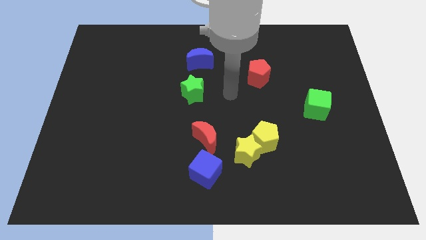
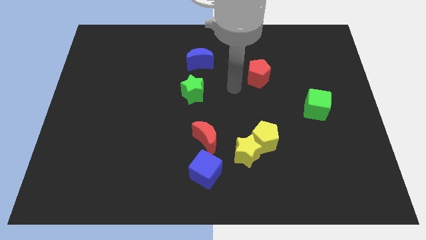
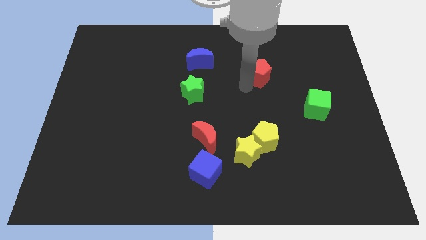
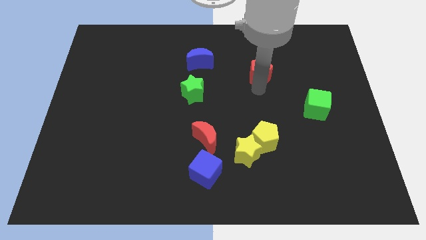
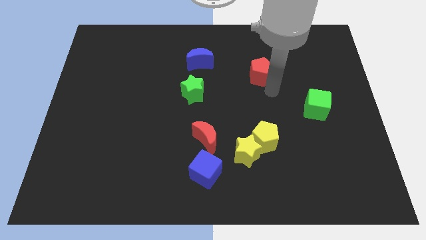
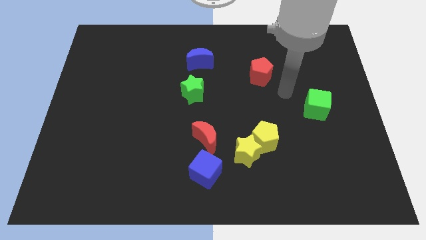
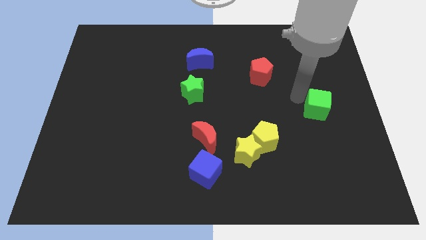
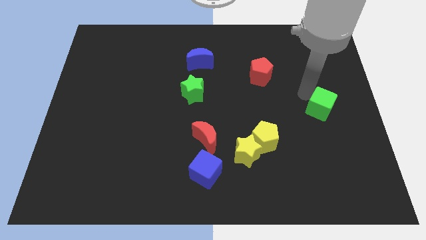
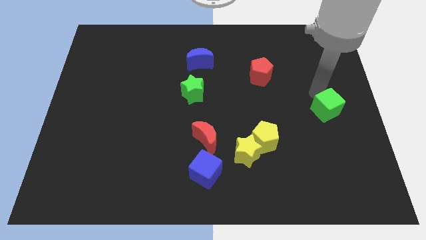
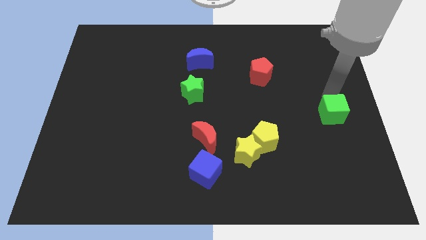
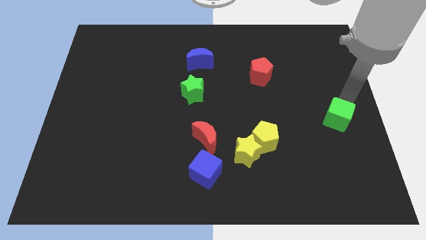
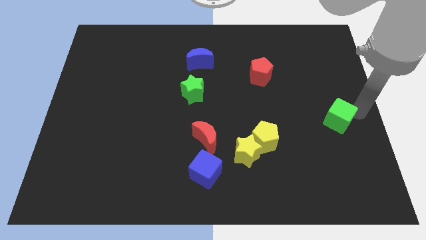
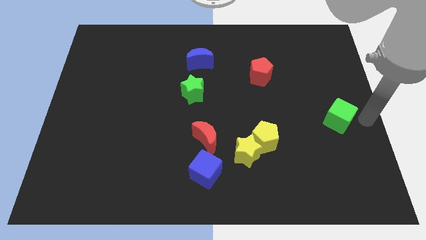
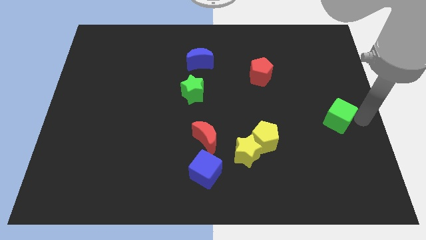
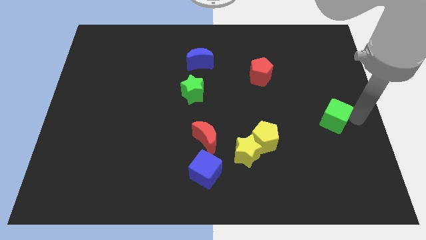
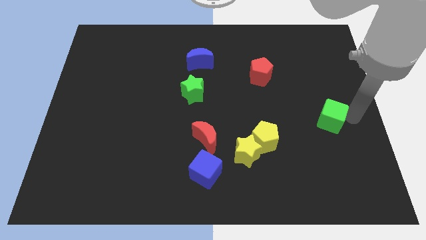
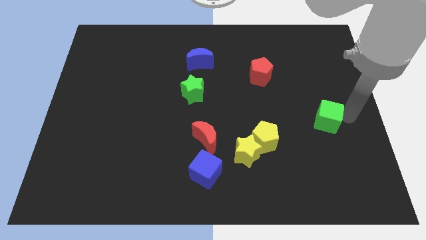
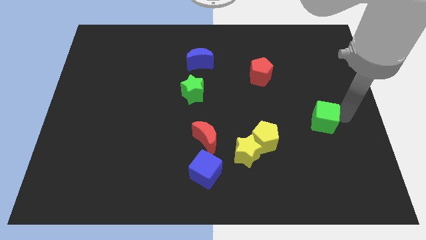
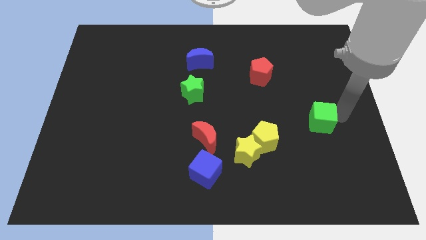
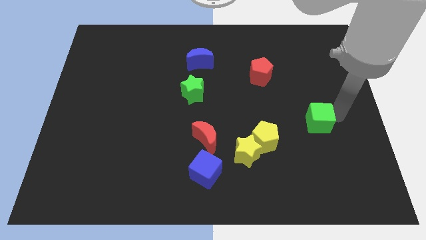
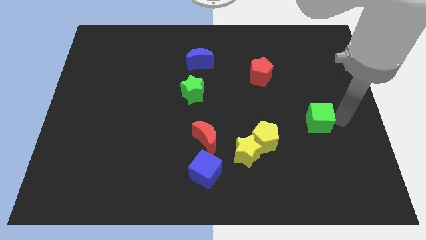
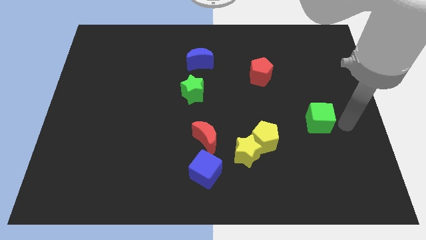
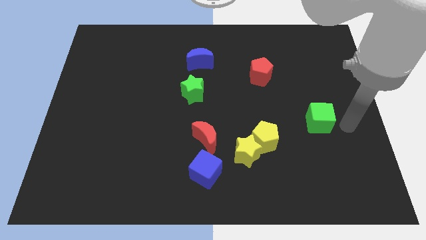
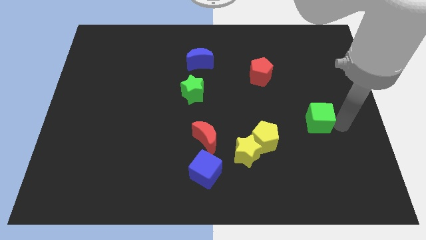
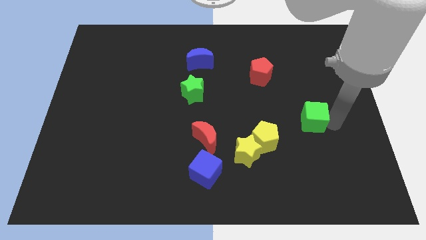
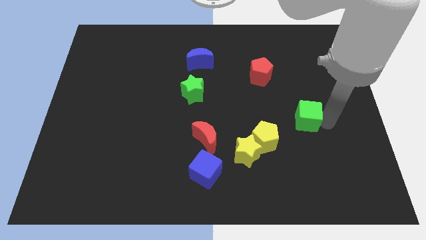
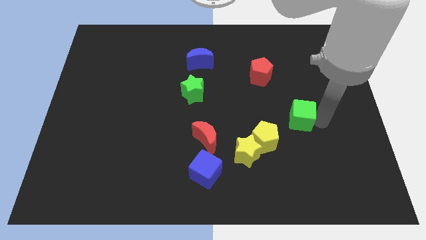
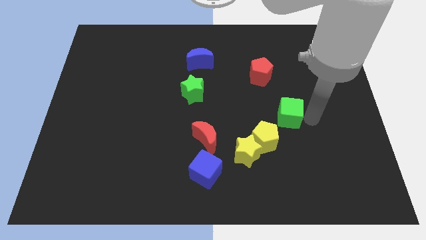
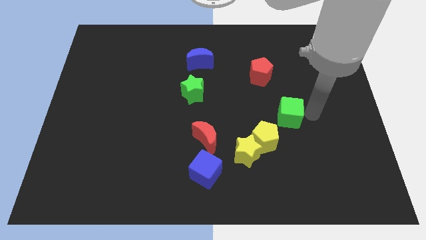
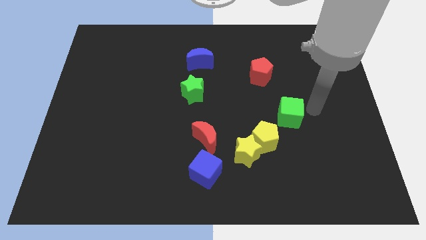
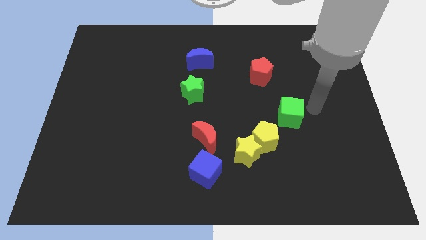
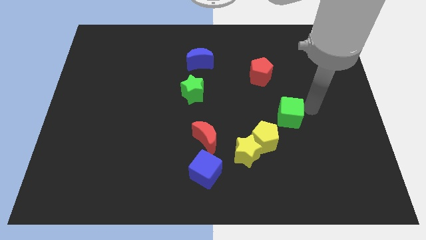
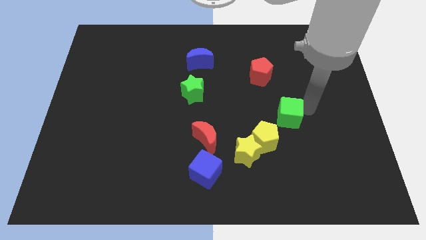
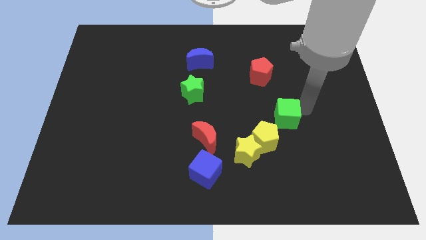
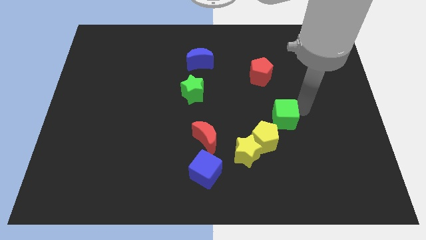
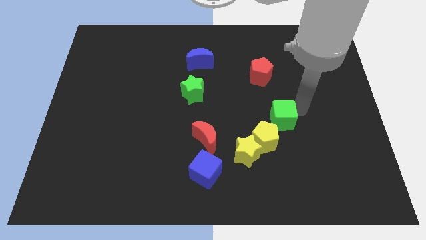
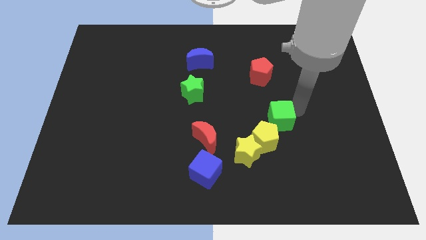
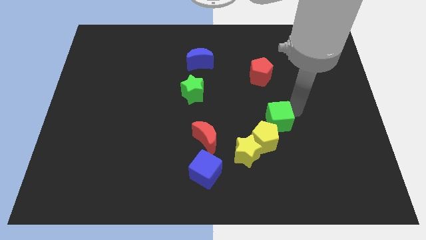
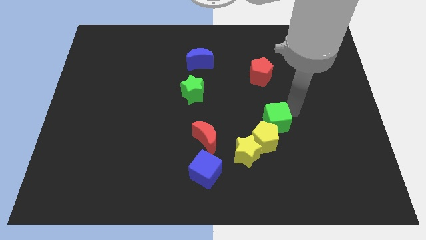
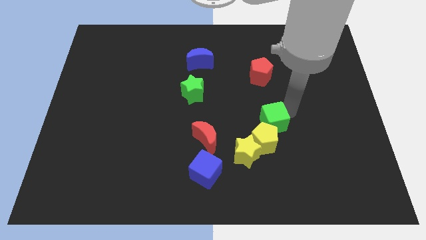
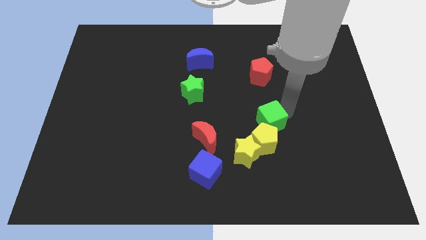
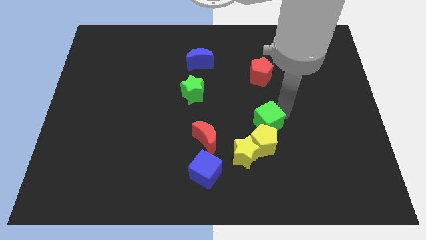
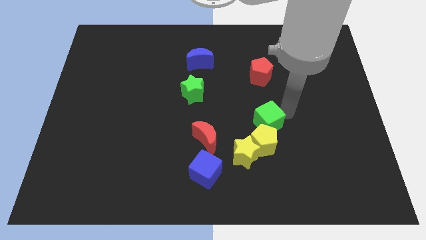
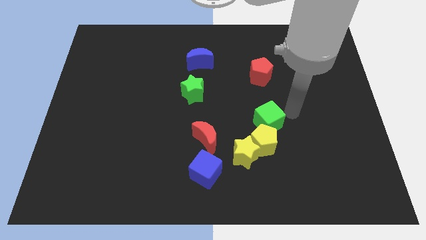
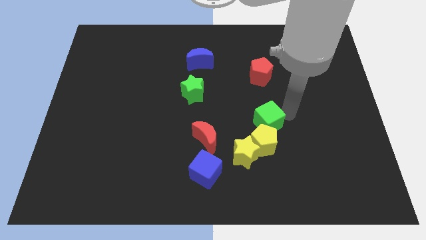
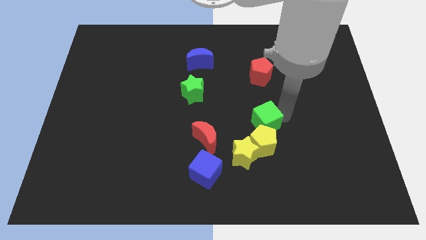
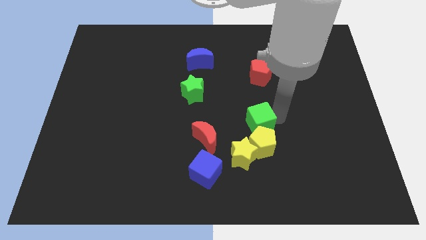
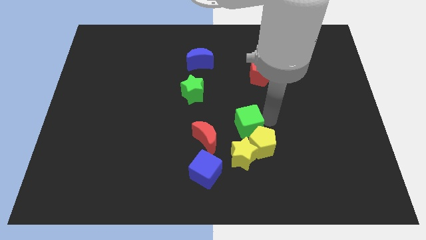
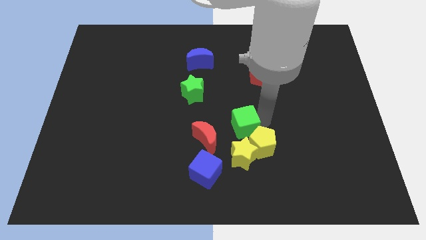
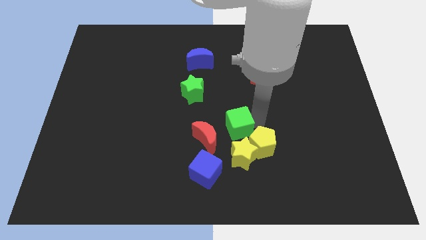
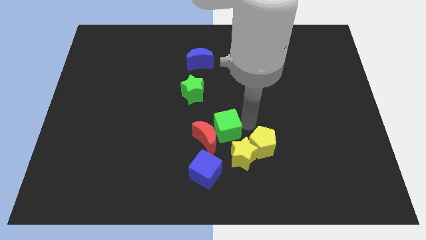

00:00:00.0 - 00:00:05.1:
push the green cube towards the red moon

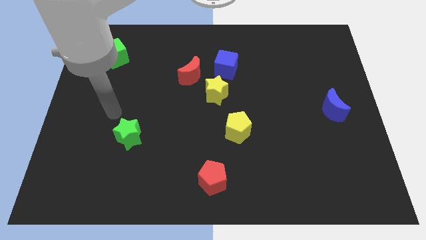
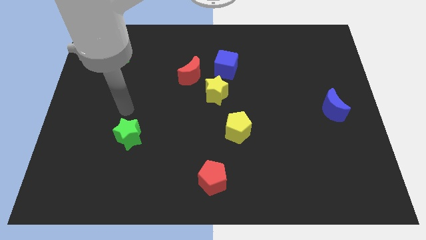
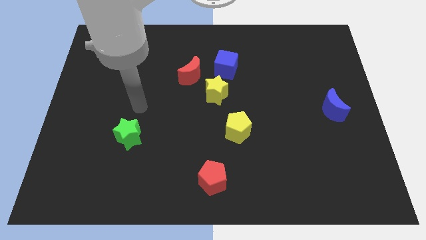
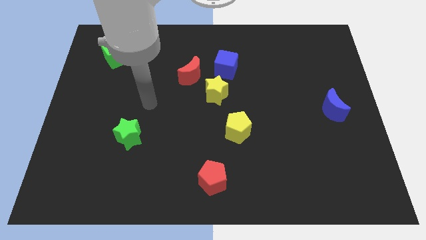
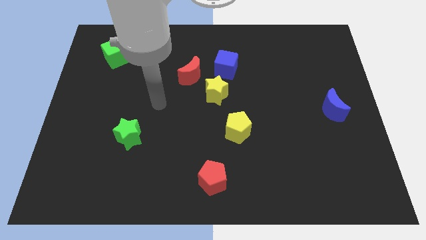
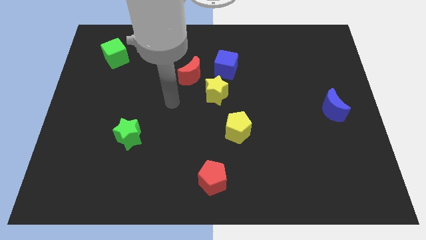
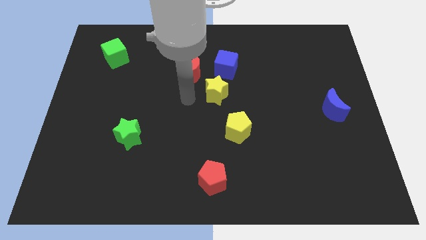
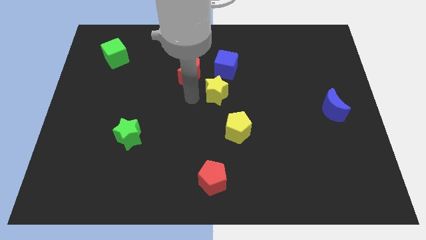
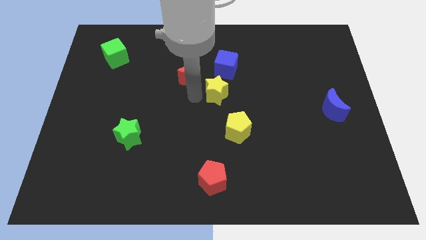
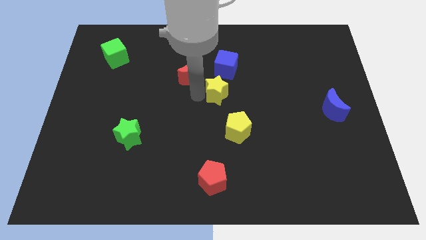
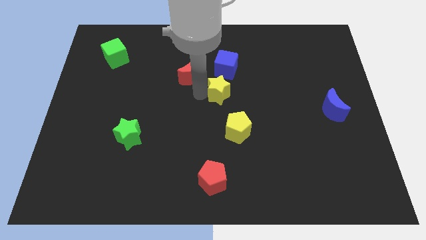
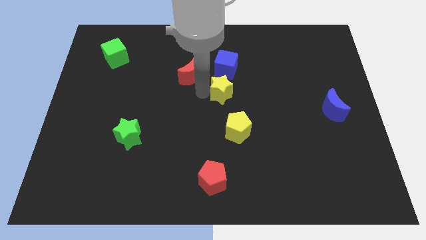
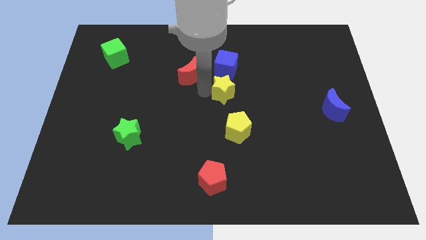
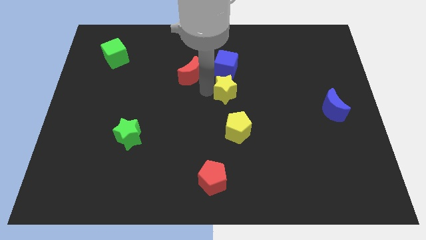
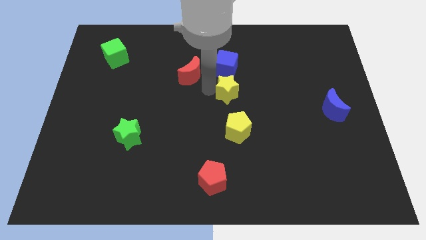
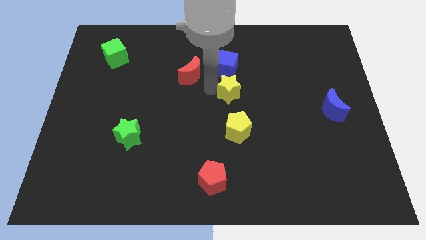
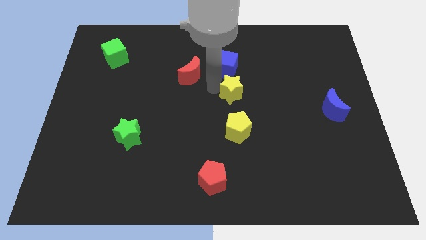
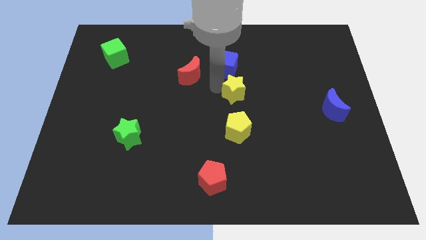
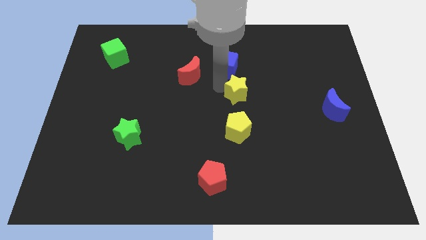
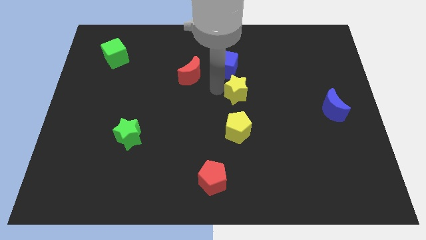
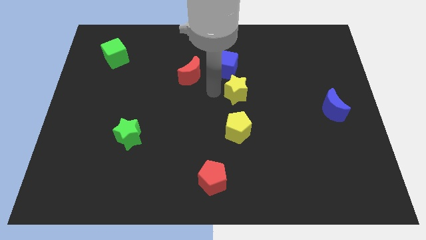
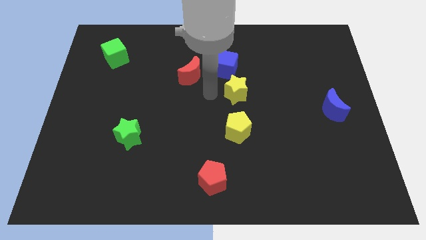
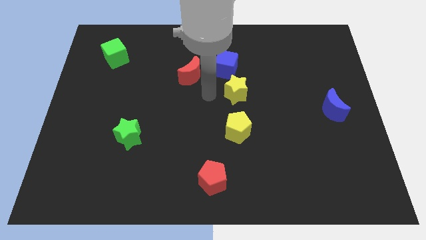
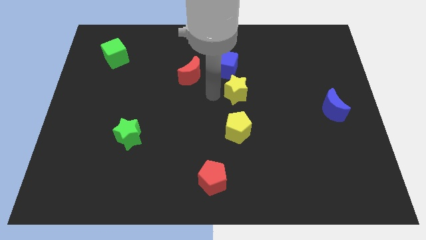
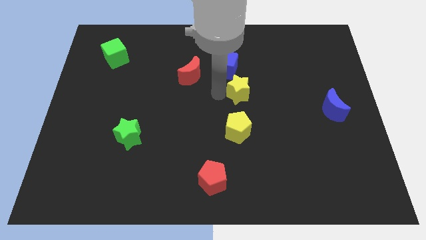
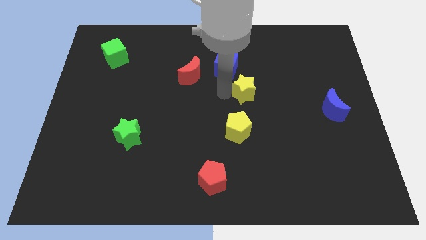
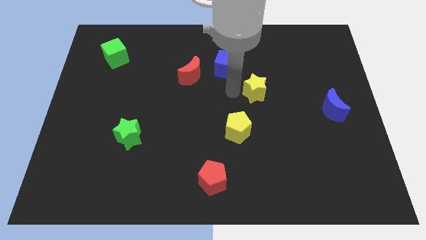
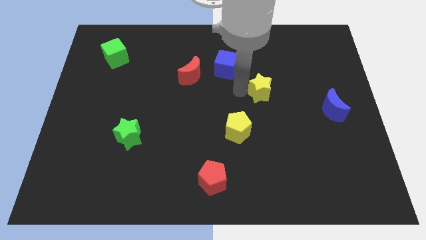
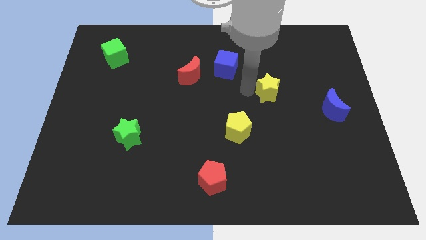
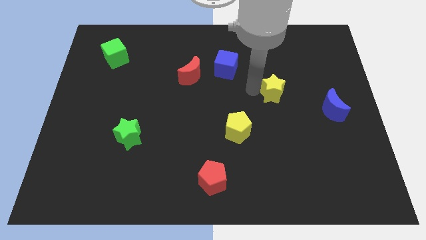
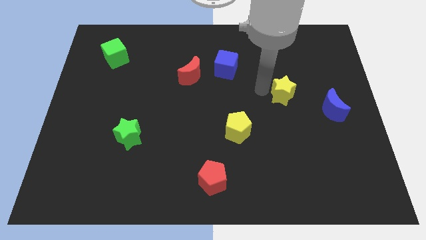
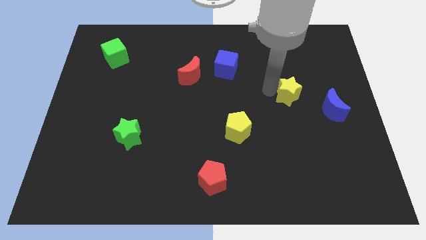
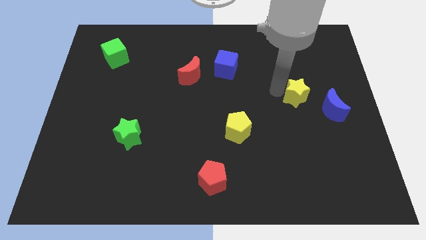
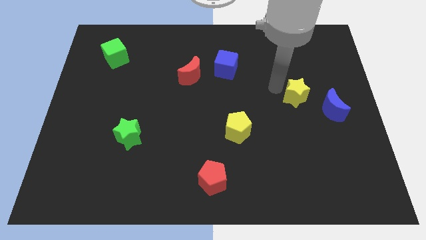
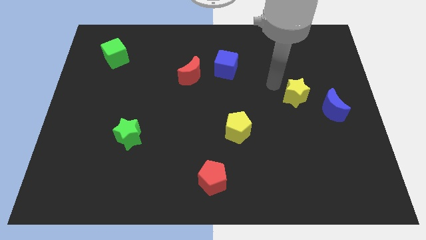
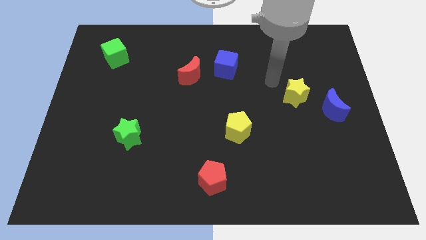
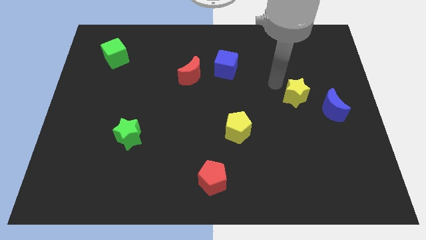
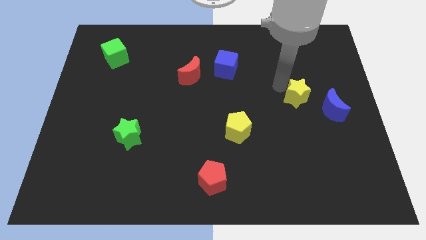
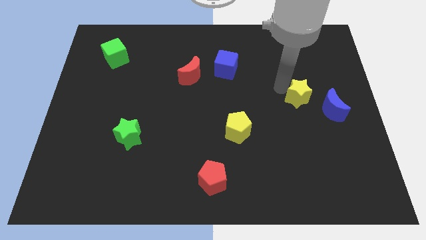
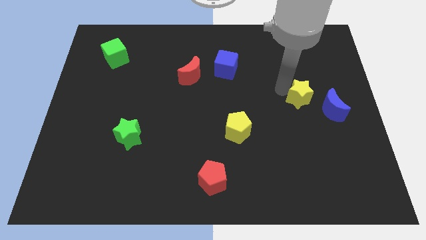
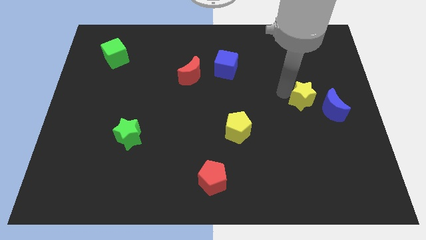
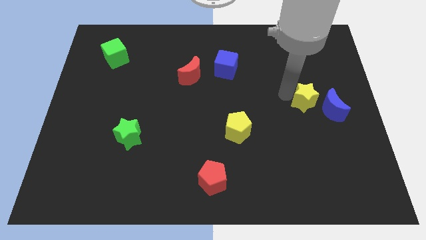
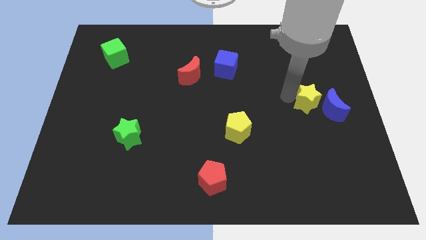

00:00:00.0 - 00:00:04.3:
slide the yellow star next to the blue moon
